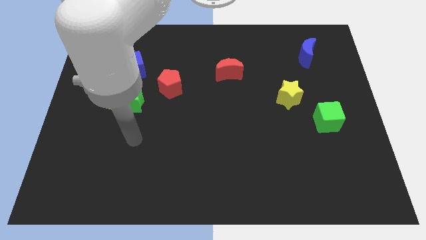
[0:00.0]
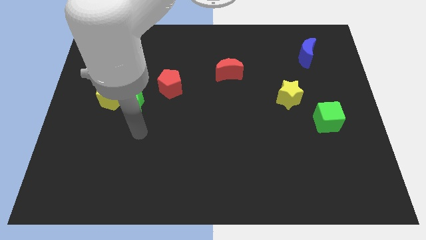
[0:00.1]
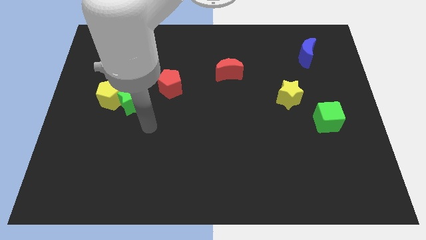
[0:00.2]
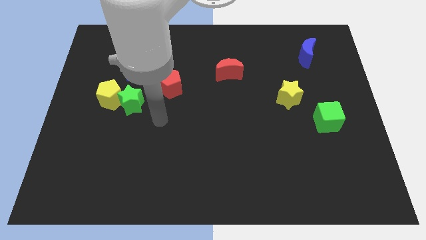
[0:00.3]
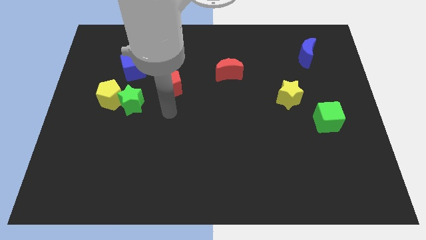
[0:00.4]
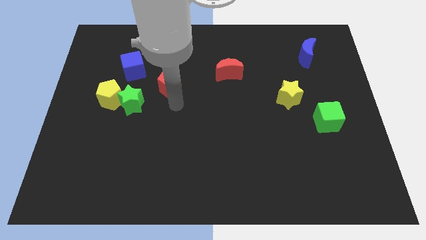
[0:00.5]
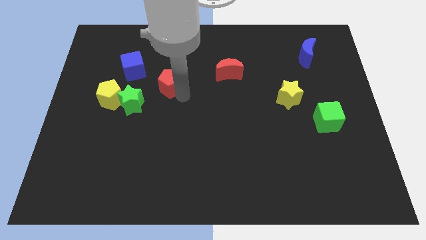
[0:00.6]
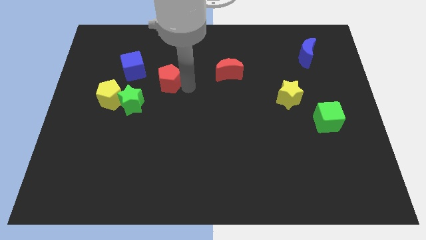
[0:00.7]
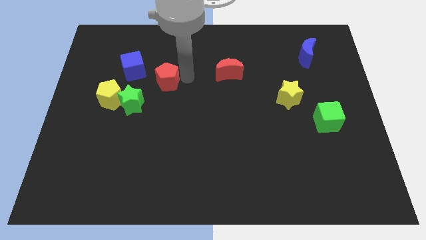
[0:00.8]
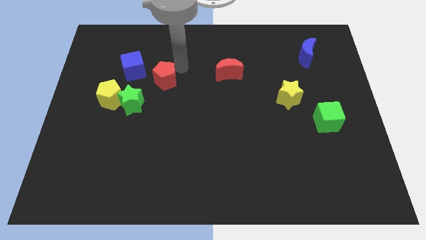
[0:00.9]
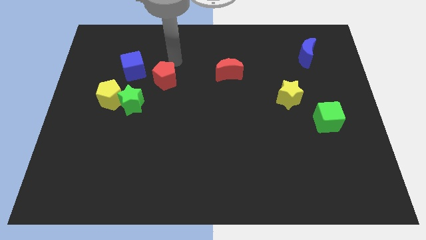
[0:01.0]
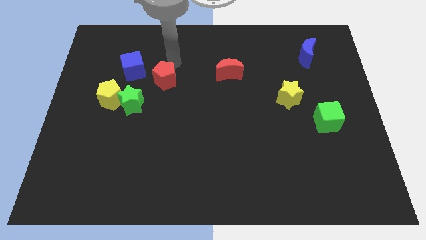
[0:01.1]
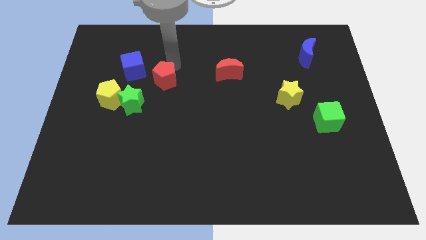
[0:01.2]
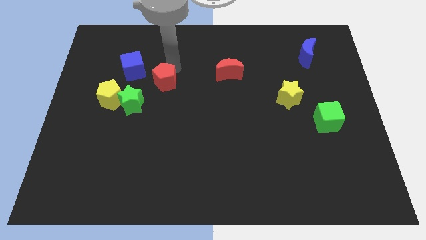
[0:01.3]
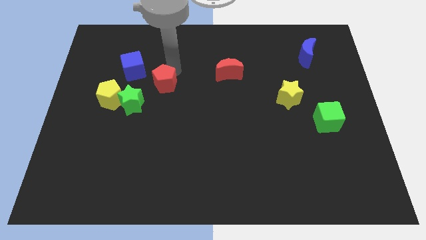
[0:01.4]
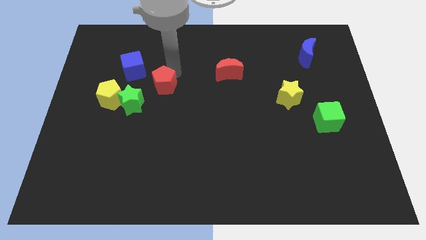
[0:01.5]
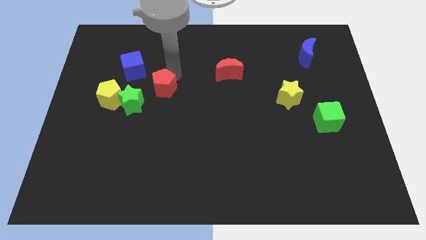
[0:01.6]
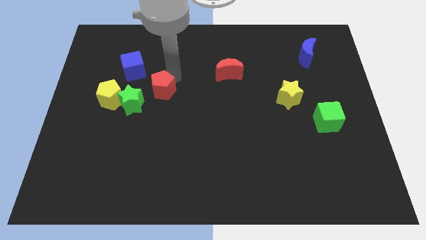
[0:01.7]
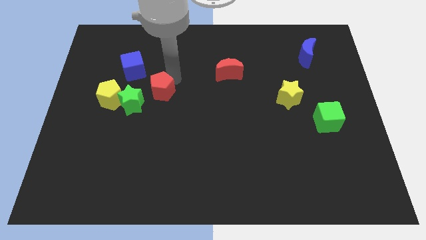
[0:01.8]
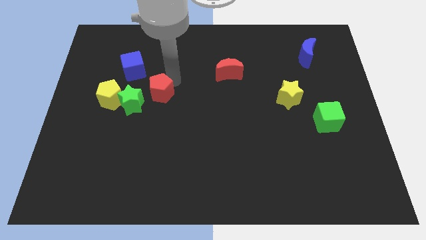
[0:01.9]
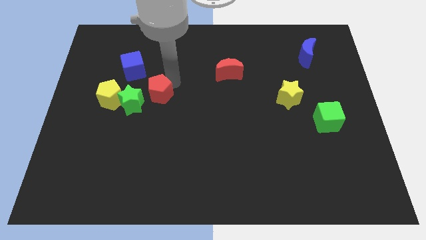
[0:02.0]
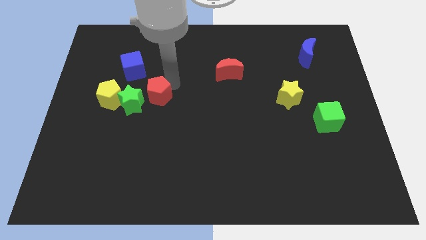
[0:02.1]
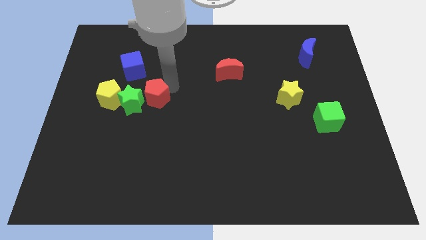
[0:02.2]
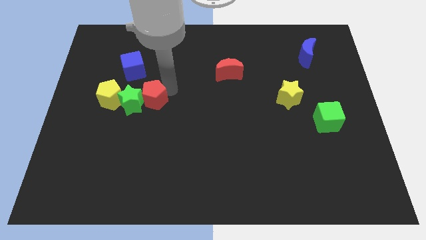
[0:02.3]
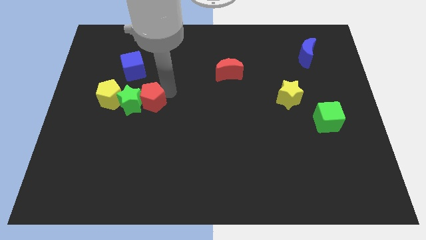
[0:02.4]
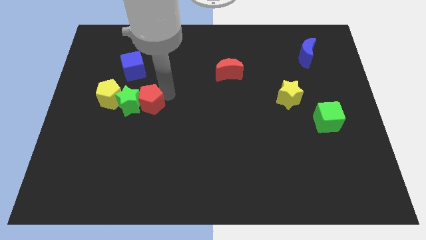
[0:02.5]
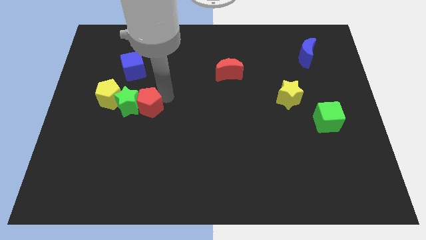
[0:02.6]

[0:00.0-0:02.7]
slightly slide the red pentagon diagonally downwards and left

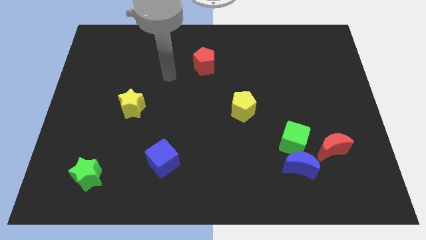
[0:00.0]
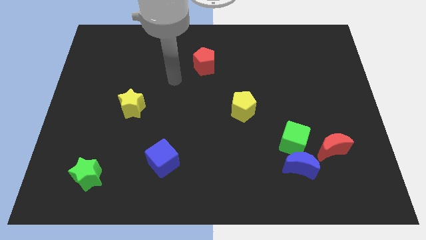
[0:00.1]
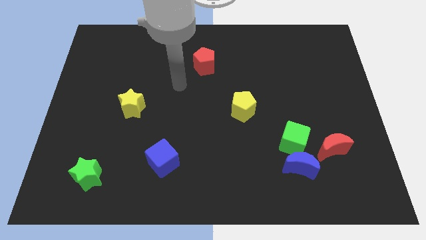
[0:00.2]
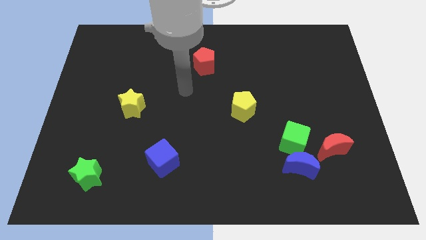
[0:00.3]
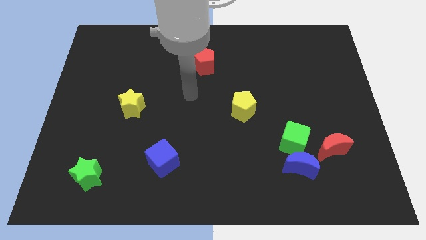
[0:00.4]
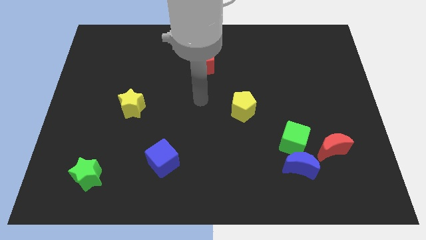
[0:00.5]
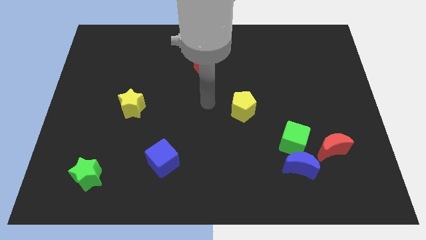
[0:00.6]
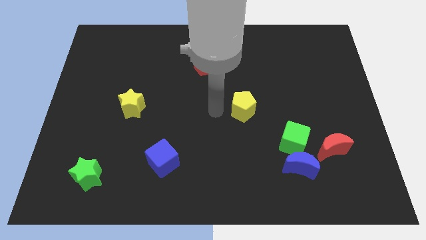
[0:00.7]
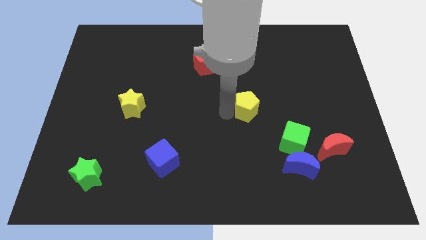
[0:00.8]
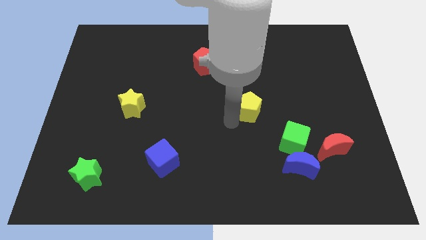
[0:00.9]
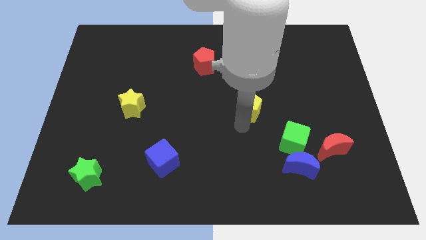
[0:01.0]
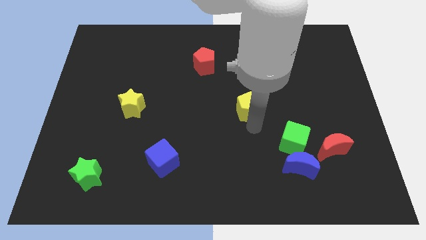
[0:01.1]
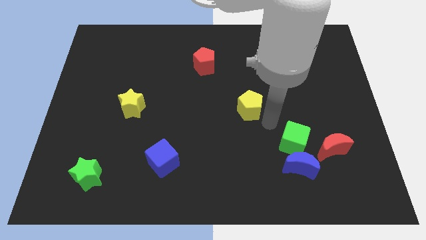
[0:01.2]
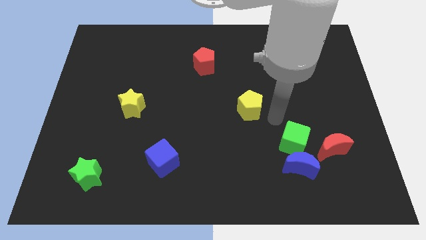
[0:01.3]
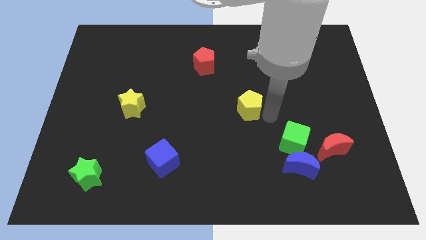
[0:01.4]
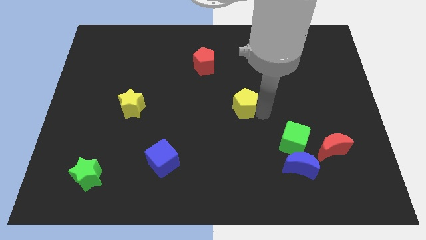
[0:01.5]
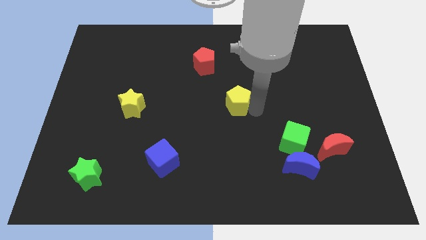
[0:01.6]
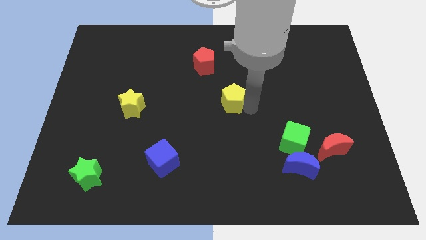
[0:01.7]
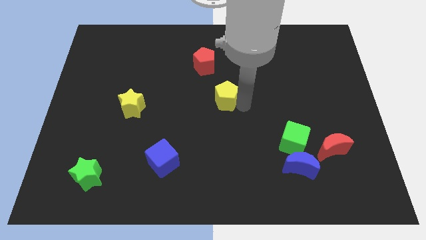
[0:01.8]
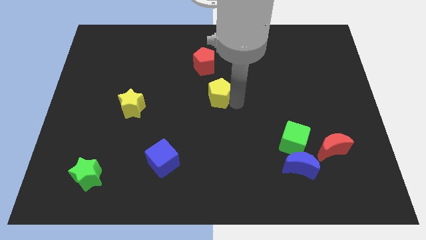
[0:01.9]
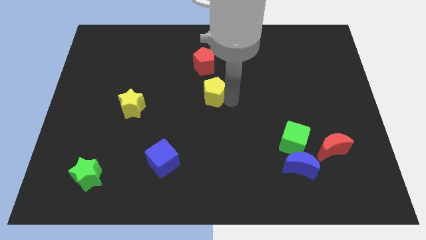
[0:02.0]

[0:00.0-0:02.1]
push the yellow pentagon upwards and left diagonally somewhat

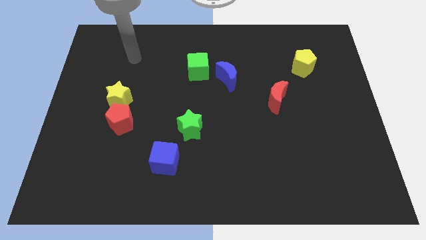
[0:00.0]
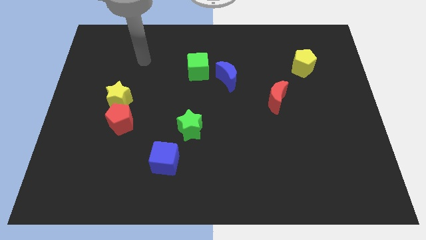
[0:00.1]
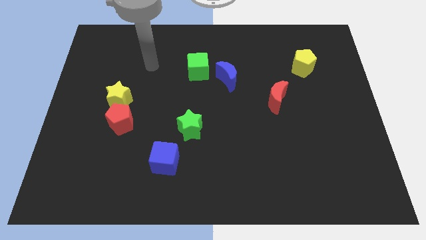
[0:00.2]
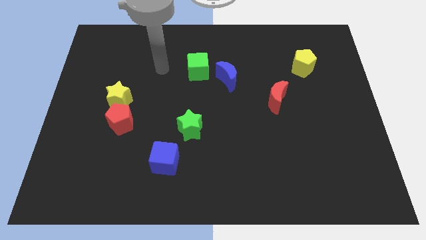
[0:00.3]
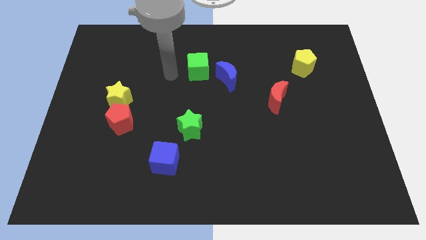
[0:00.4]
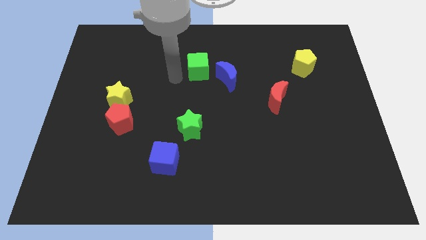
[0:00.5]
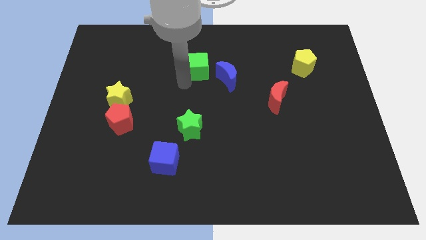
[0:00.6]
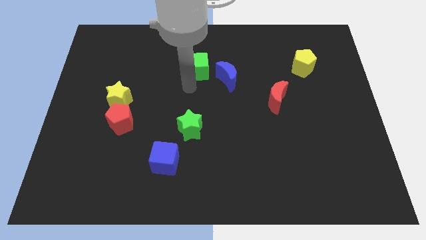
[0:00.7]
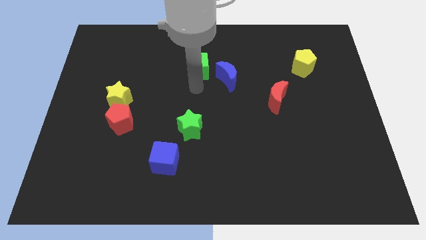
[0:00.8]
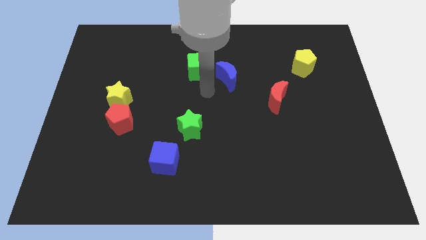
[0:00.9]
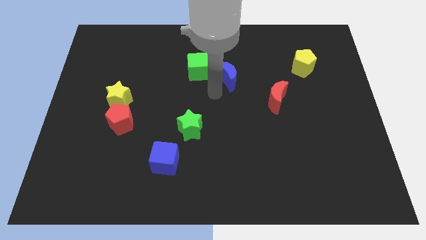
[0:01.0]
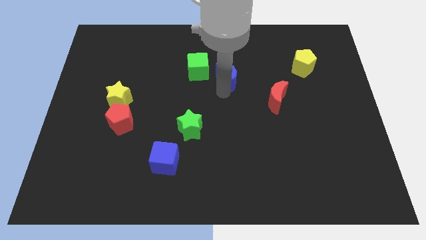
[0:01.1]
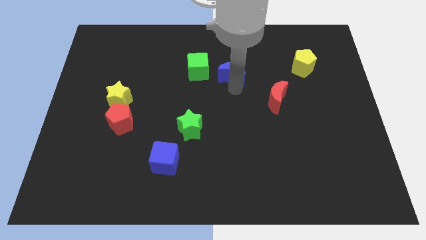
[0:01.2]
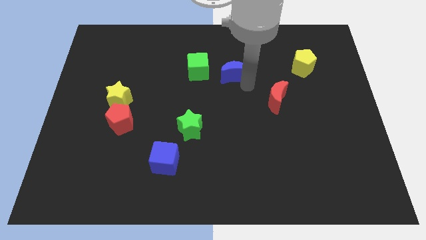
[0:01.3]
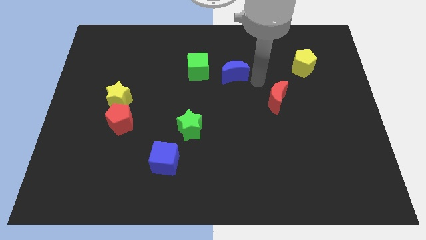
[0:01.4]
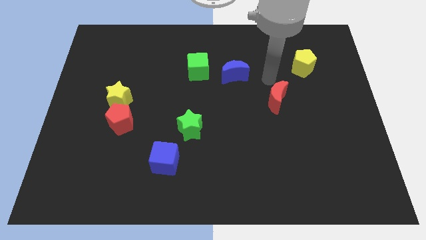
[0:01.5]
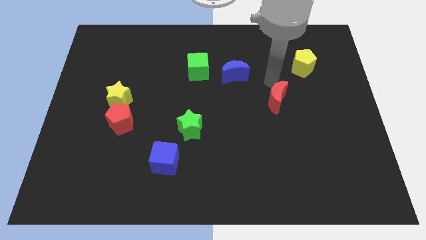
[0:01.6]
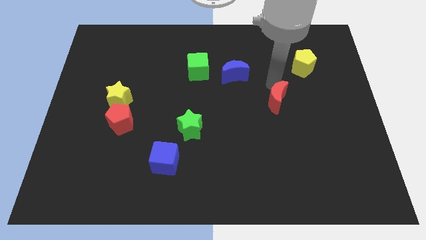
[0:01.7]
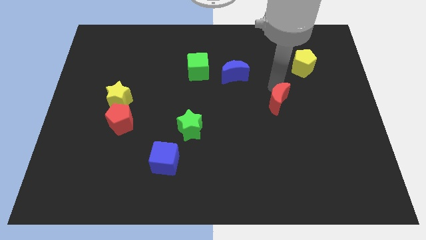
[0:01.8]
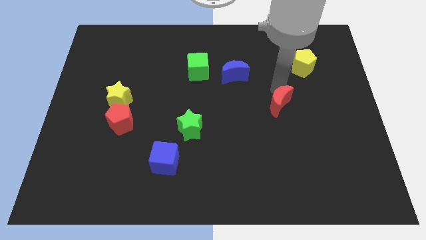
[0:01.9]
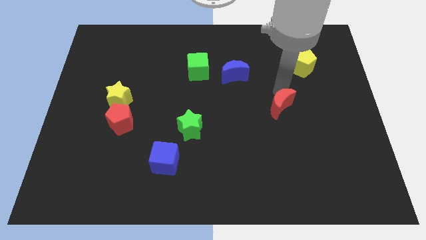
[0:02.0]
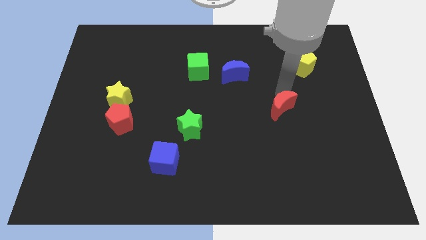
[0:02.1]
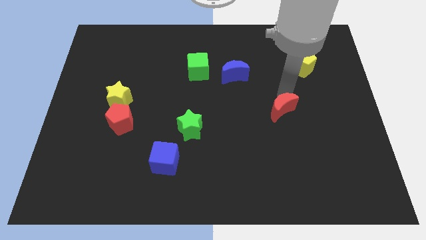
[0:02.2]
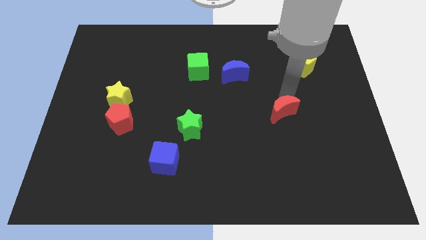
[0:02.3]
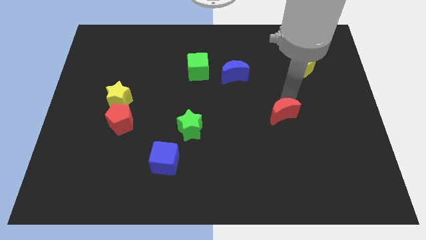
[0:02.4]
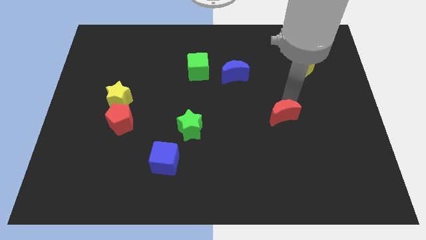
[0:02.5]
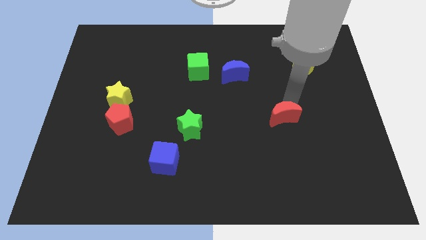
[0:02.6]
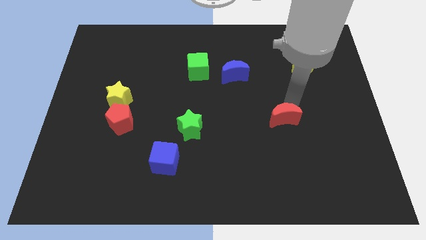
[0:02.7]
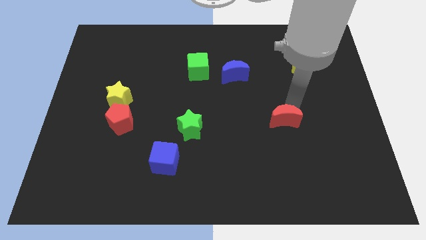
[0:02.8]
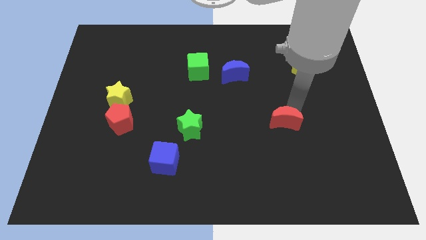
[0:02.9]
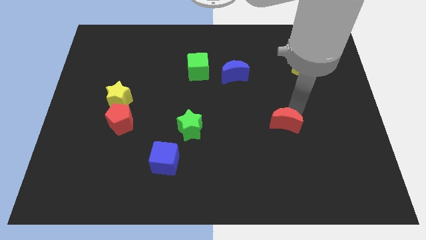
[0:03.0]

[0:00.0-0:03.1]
push the red moon slightly down
